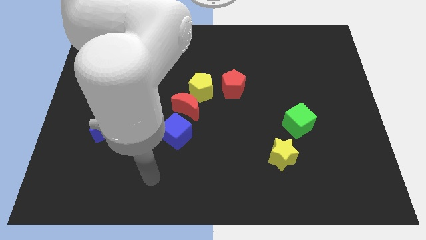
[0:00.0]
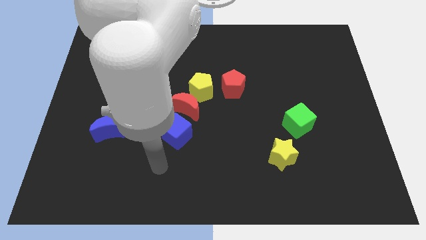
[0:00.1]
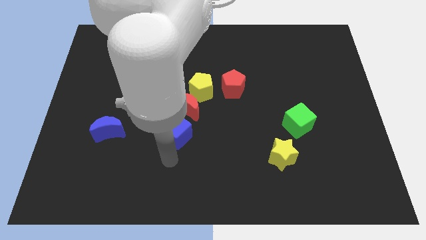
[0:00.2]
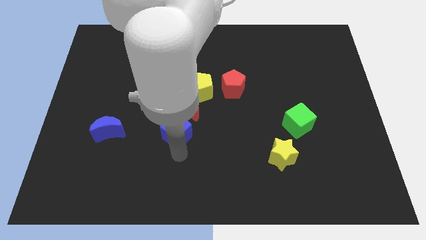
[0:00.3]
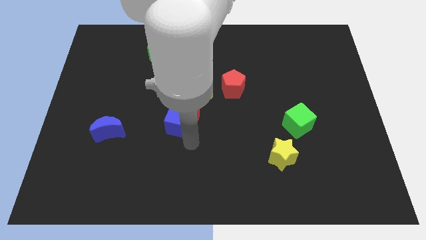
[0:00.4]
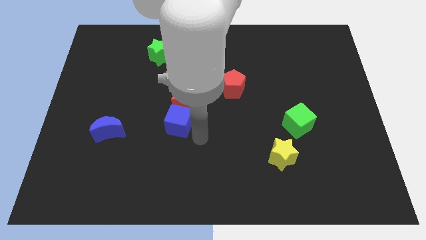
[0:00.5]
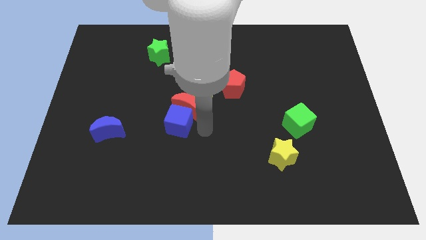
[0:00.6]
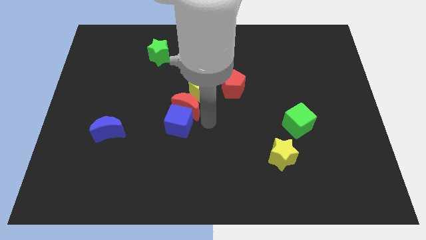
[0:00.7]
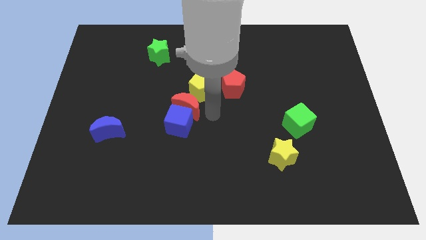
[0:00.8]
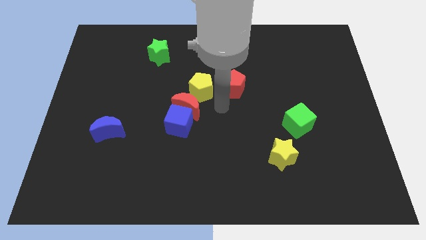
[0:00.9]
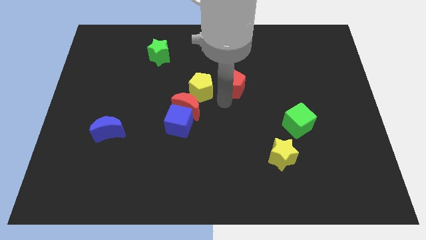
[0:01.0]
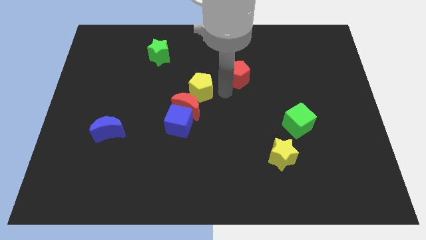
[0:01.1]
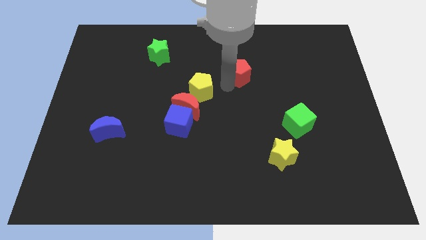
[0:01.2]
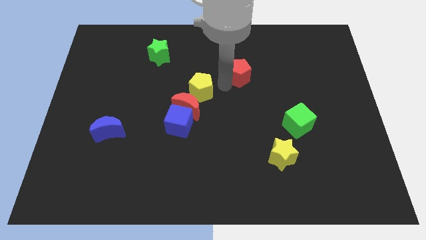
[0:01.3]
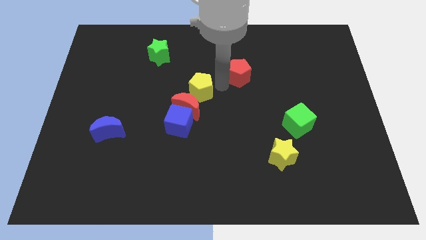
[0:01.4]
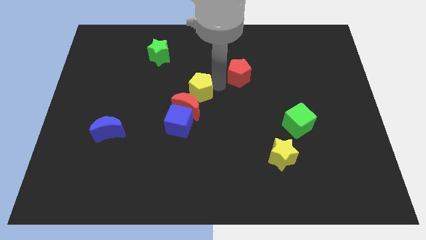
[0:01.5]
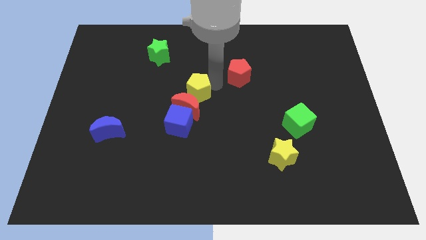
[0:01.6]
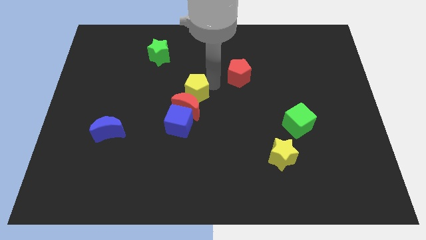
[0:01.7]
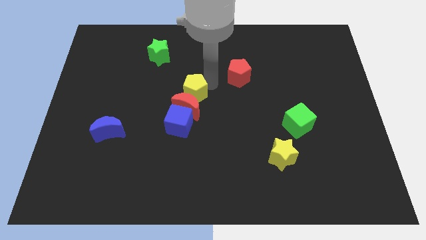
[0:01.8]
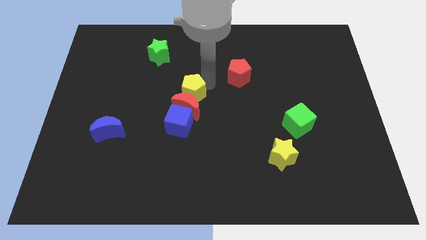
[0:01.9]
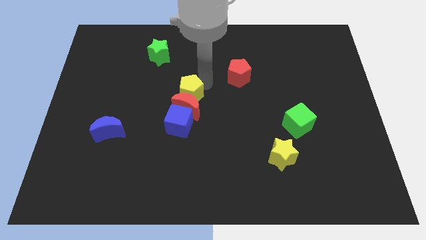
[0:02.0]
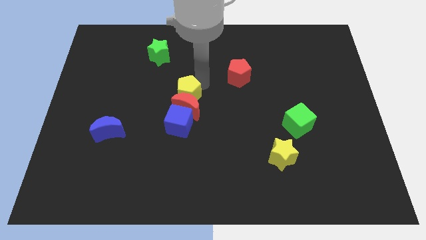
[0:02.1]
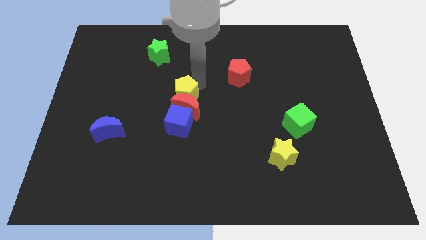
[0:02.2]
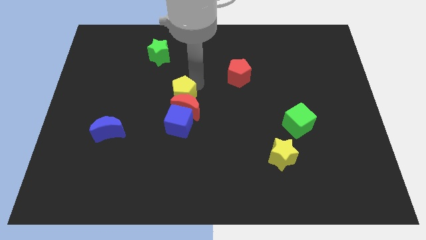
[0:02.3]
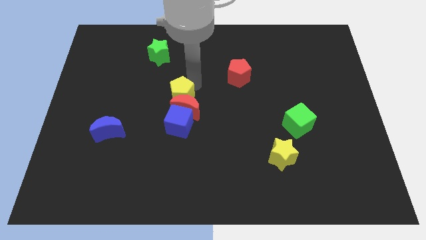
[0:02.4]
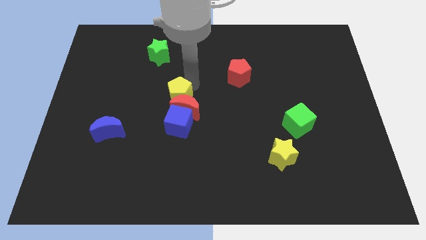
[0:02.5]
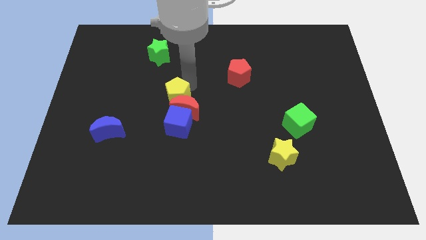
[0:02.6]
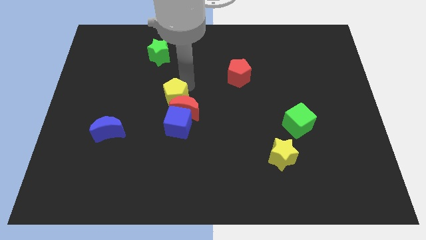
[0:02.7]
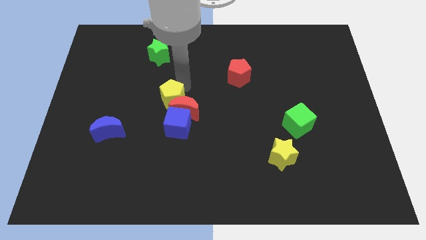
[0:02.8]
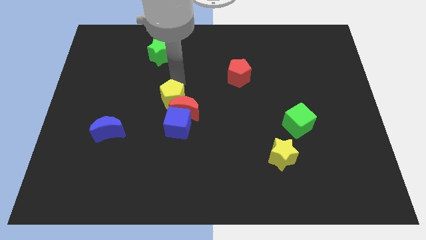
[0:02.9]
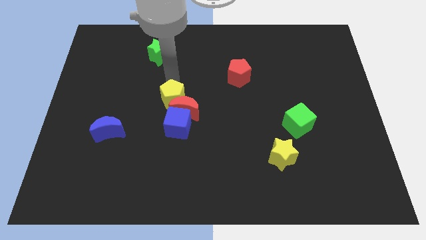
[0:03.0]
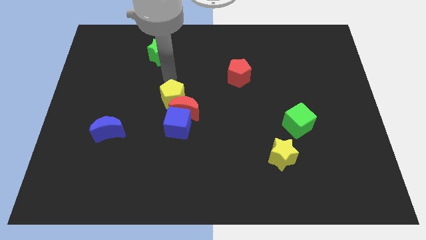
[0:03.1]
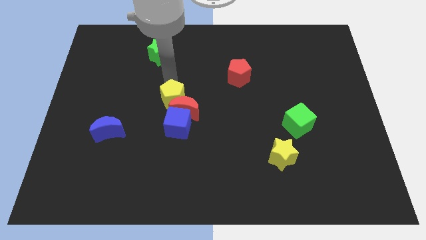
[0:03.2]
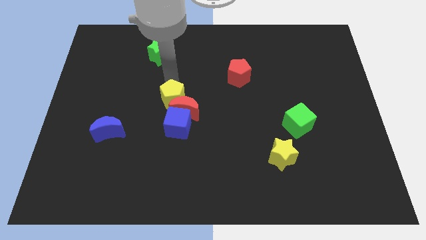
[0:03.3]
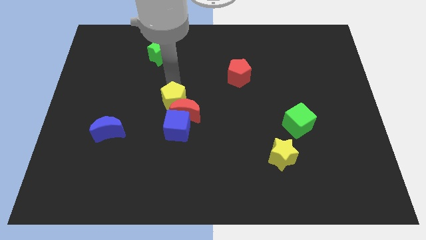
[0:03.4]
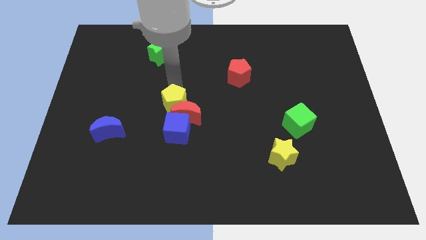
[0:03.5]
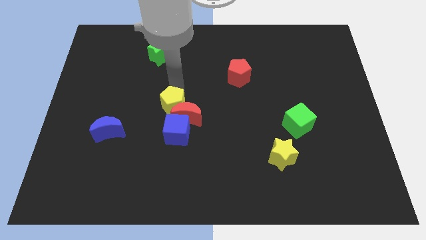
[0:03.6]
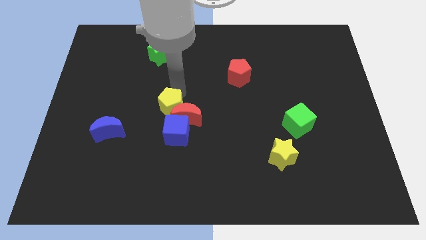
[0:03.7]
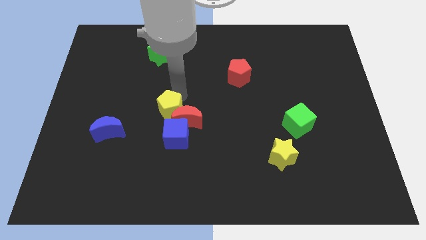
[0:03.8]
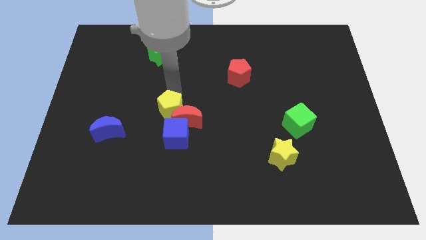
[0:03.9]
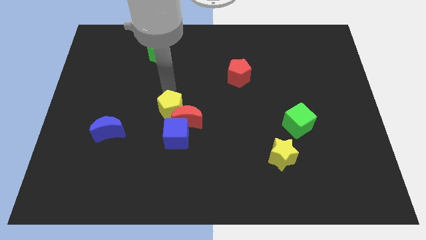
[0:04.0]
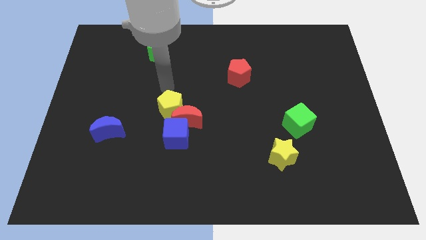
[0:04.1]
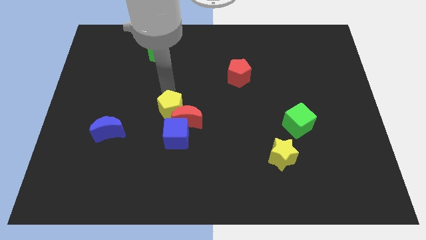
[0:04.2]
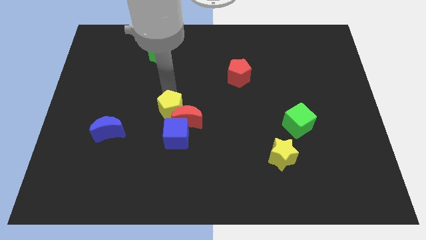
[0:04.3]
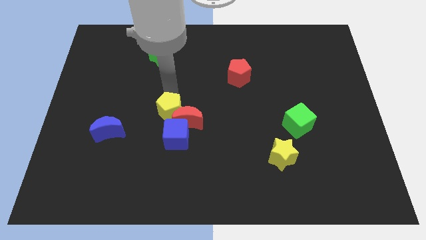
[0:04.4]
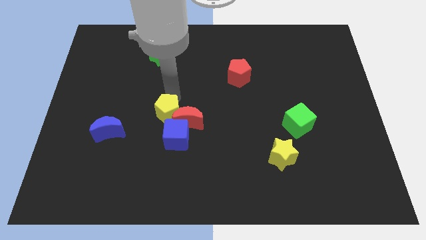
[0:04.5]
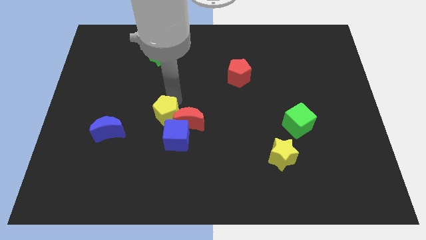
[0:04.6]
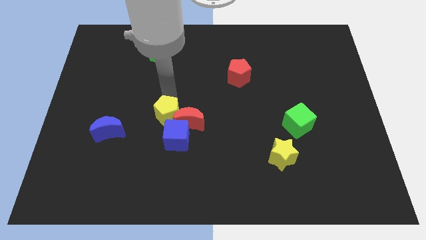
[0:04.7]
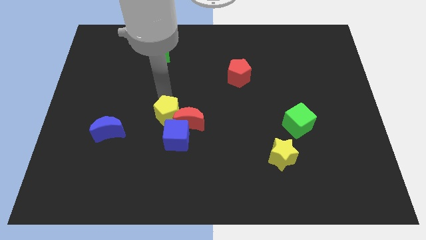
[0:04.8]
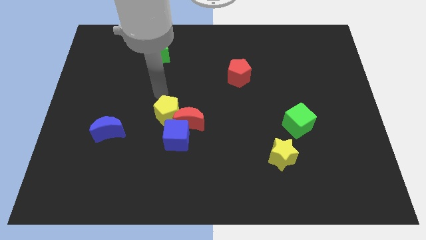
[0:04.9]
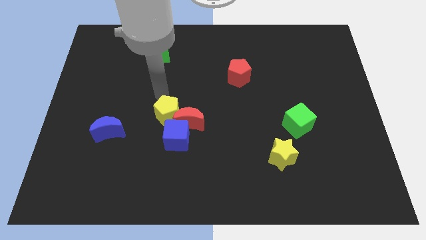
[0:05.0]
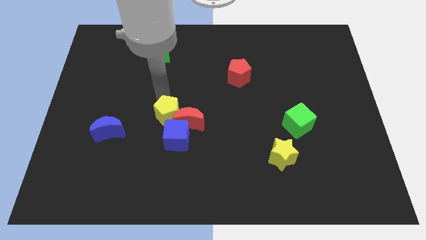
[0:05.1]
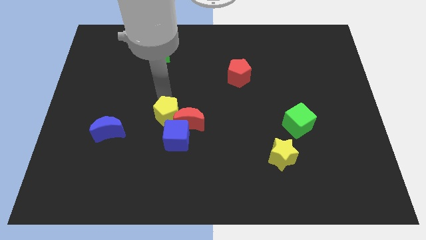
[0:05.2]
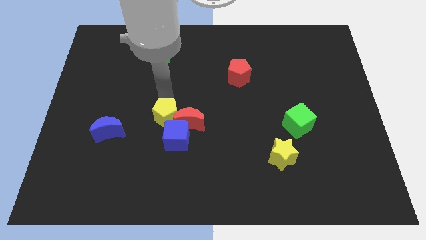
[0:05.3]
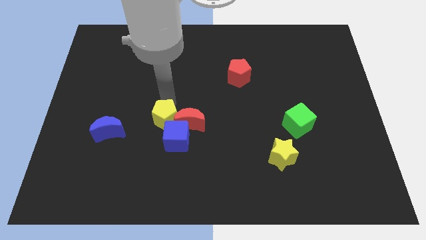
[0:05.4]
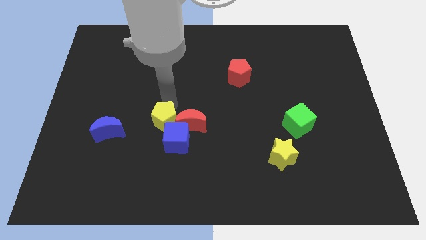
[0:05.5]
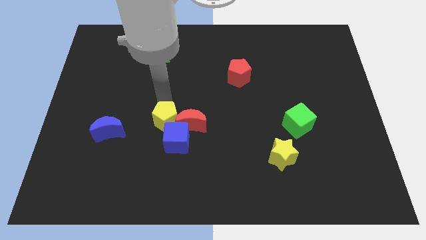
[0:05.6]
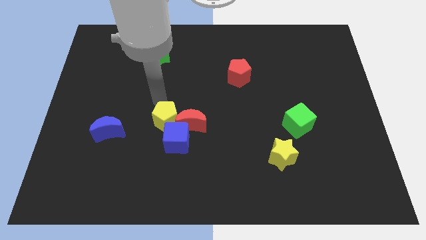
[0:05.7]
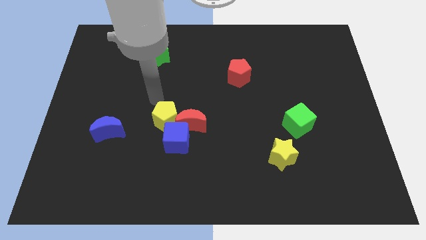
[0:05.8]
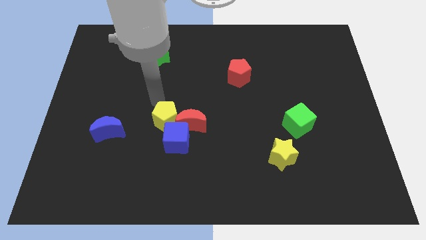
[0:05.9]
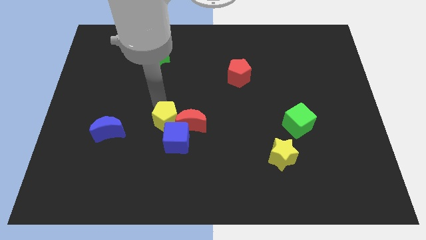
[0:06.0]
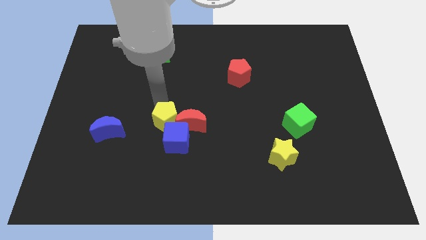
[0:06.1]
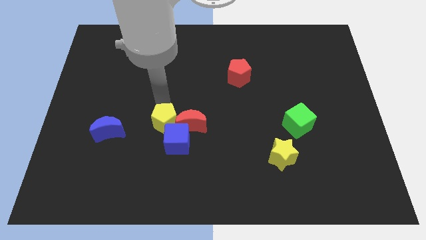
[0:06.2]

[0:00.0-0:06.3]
push the yellow pentagon towards the blue cube

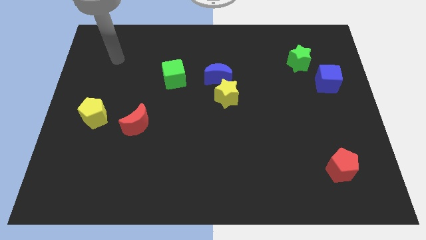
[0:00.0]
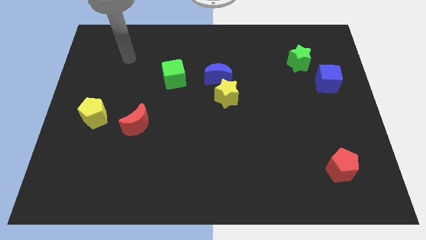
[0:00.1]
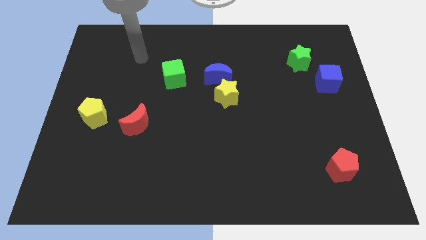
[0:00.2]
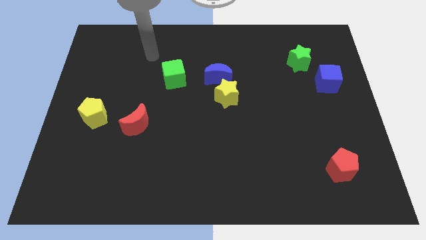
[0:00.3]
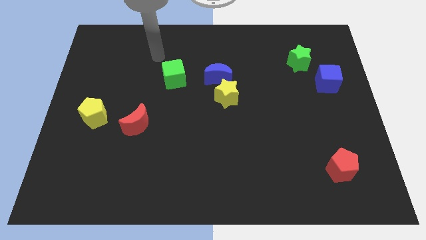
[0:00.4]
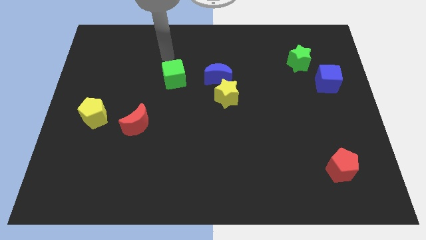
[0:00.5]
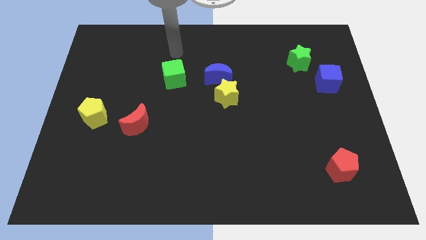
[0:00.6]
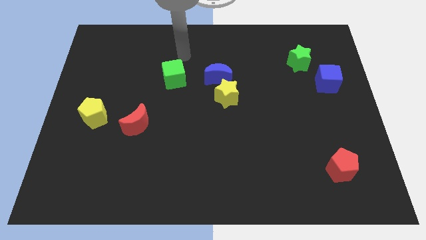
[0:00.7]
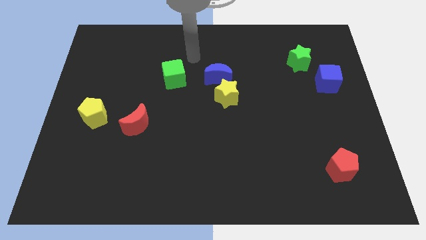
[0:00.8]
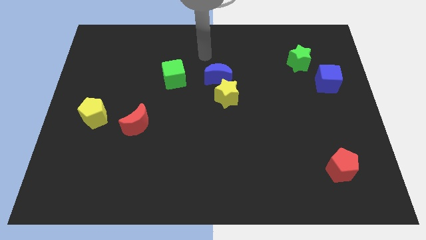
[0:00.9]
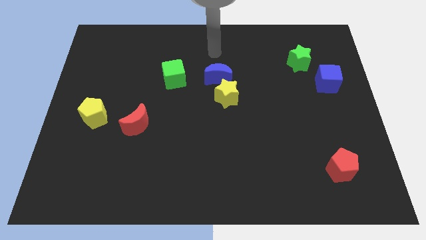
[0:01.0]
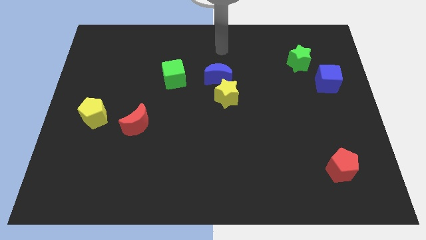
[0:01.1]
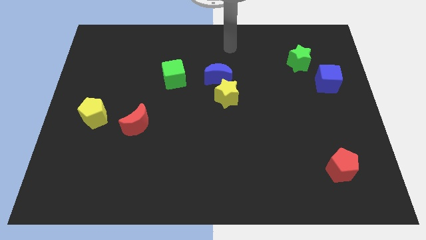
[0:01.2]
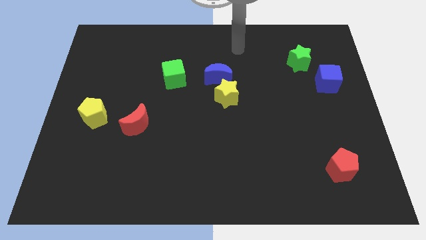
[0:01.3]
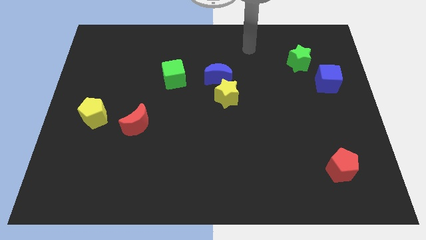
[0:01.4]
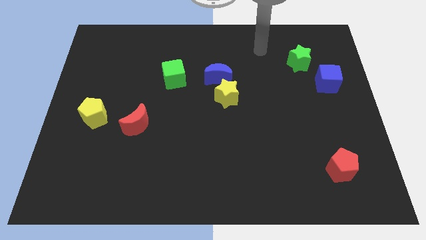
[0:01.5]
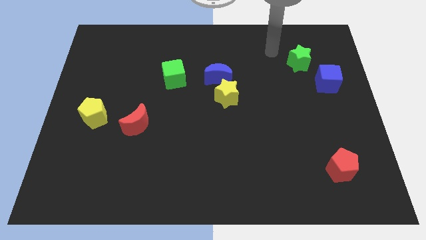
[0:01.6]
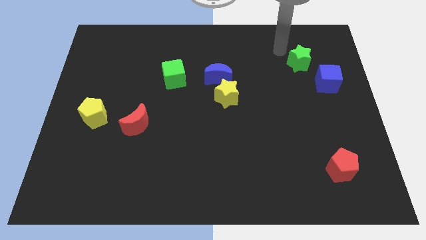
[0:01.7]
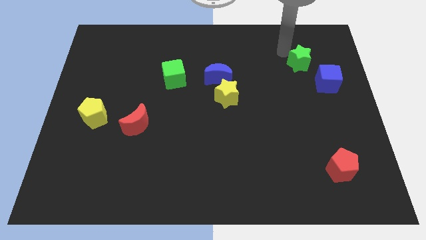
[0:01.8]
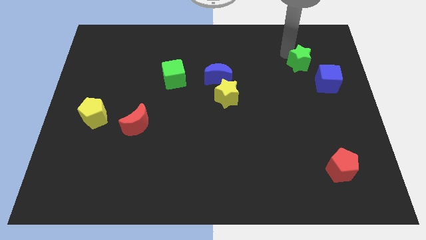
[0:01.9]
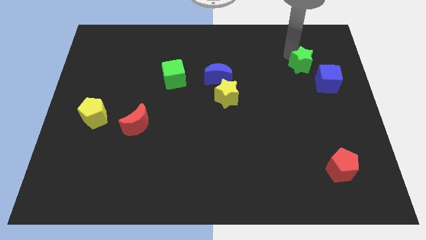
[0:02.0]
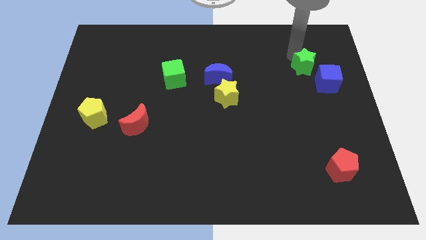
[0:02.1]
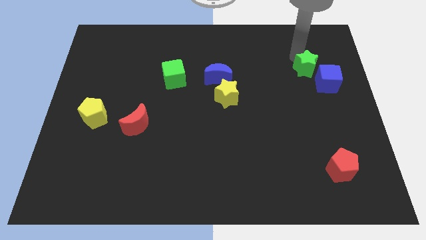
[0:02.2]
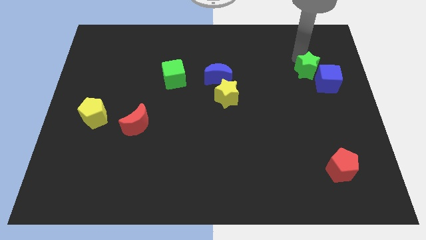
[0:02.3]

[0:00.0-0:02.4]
put the green star close to the blue cube
